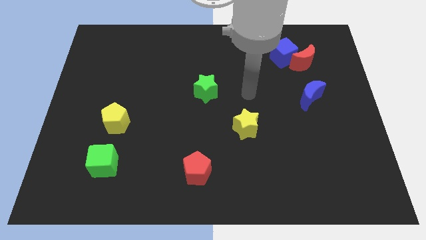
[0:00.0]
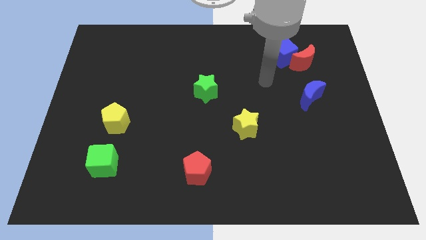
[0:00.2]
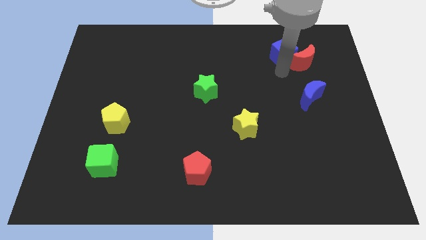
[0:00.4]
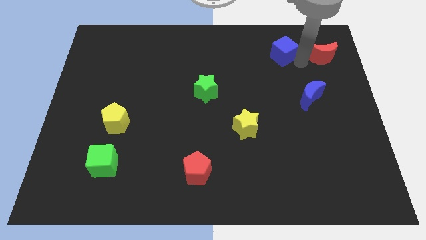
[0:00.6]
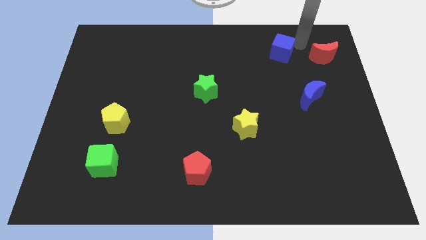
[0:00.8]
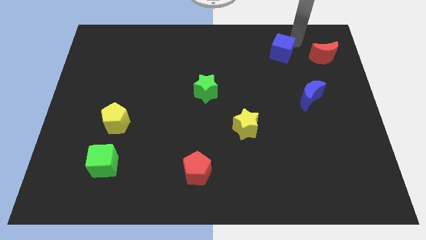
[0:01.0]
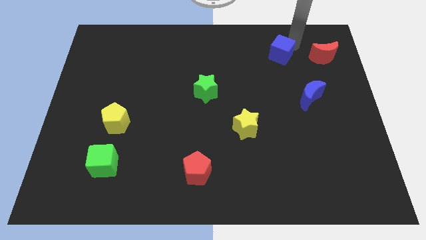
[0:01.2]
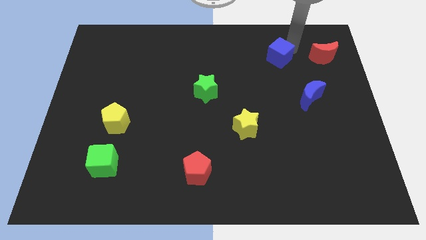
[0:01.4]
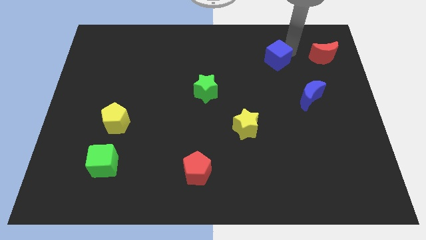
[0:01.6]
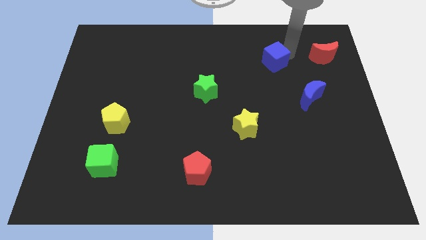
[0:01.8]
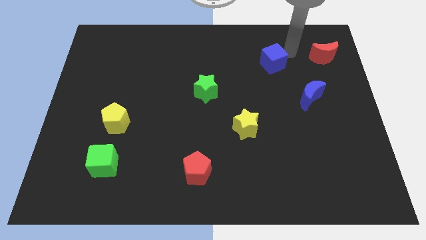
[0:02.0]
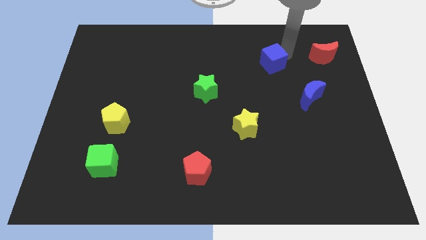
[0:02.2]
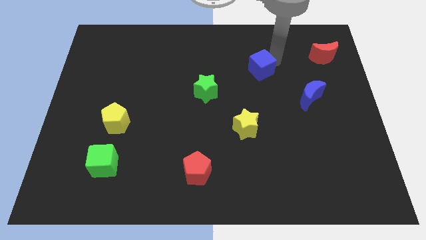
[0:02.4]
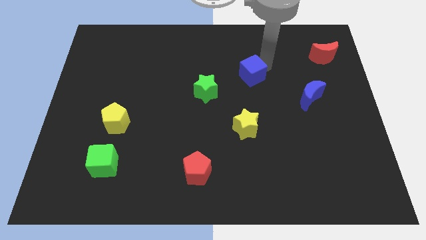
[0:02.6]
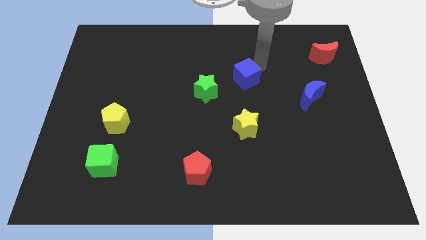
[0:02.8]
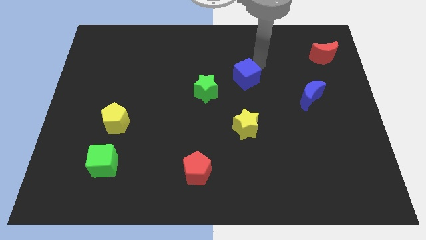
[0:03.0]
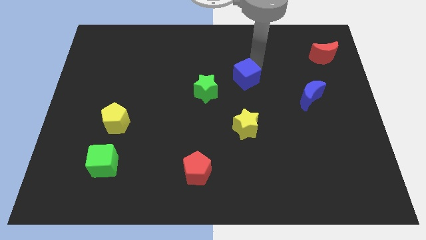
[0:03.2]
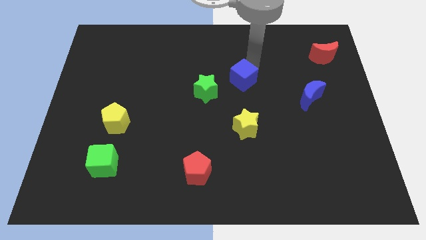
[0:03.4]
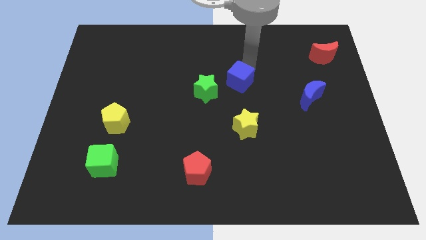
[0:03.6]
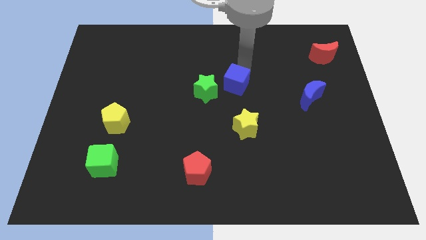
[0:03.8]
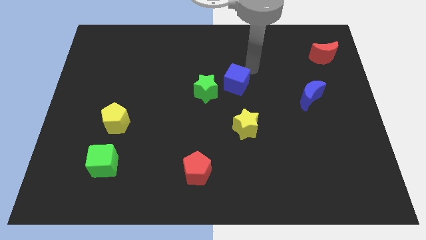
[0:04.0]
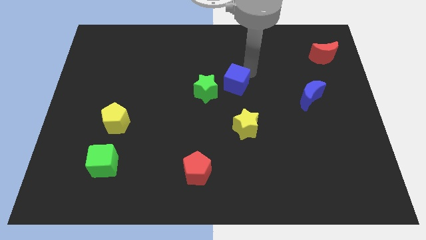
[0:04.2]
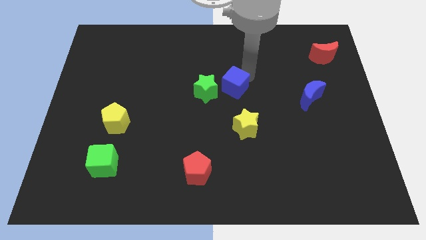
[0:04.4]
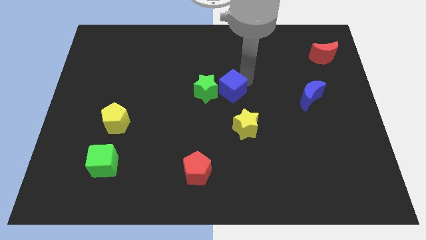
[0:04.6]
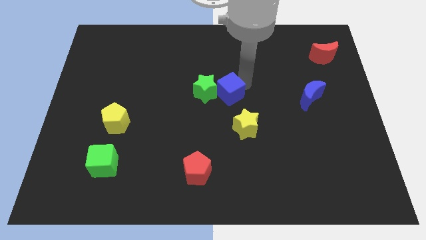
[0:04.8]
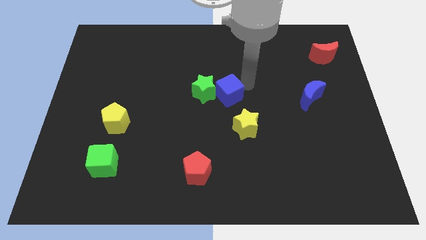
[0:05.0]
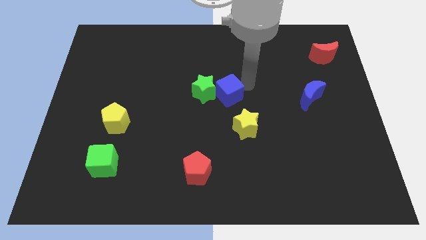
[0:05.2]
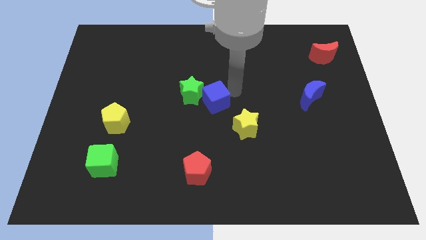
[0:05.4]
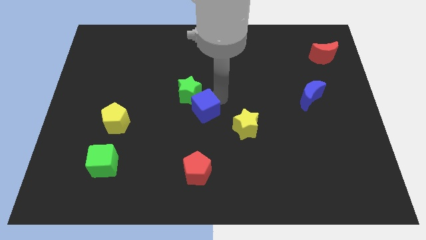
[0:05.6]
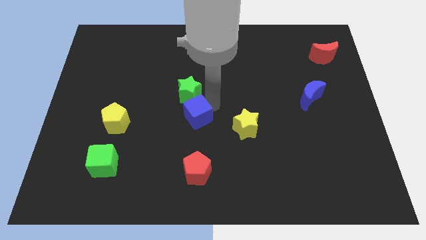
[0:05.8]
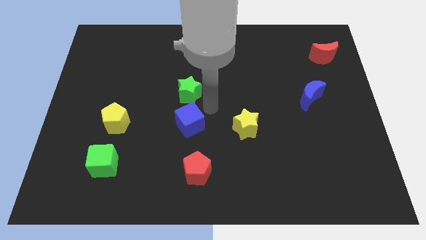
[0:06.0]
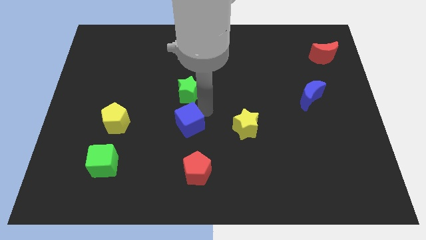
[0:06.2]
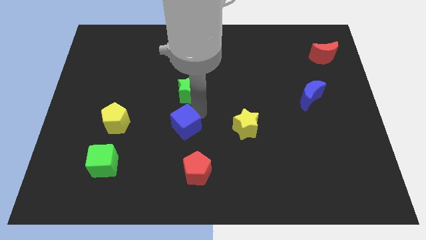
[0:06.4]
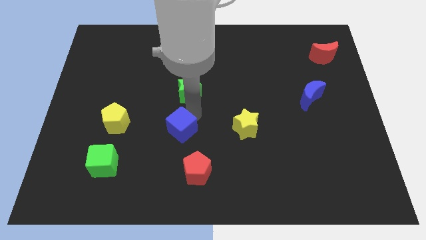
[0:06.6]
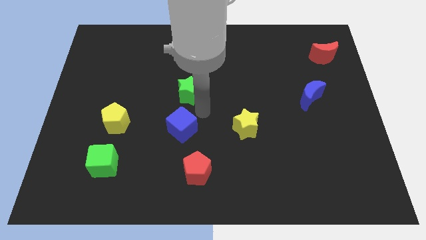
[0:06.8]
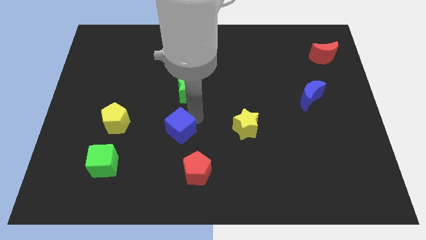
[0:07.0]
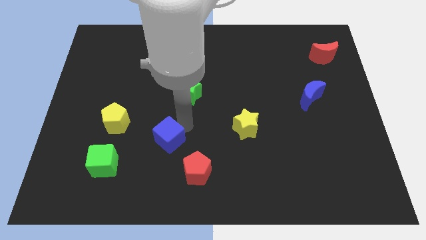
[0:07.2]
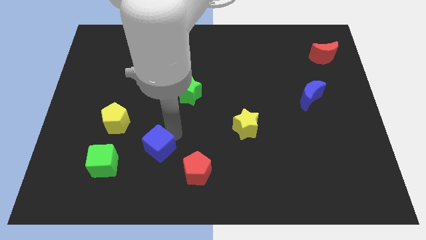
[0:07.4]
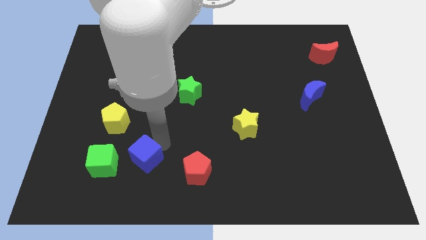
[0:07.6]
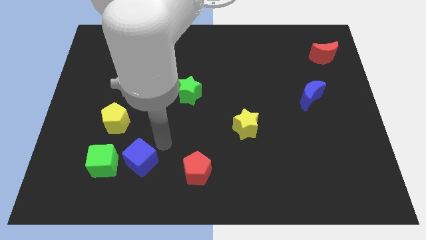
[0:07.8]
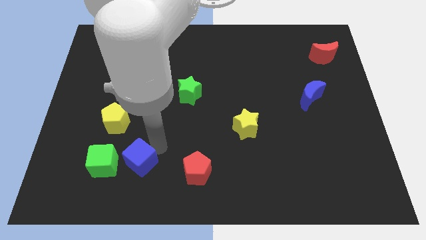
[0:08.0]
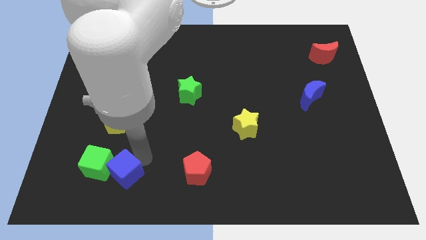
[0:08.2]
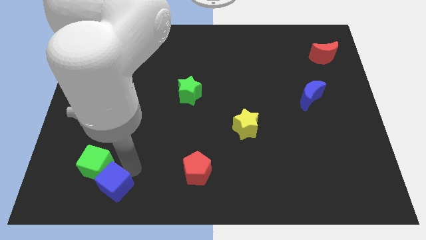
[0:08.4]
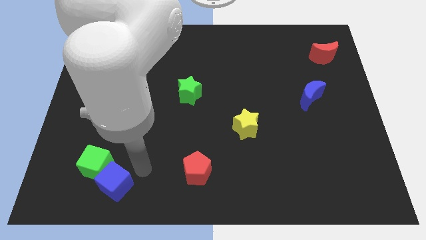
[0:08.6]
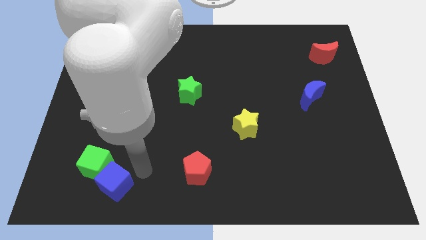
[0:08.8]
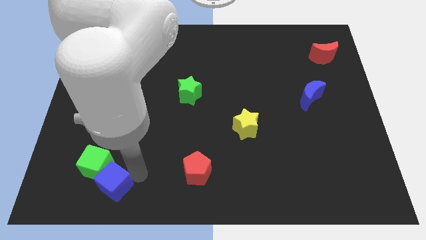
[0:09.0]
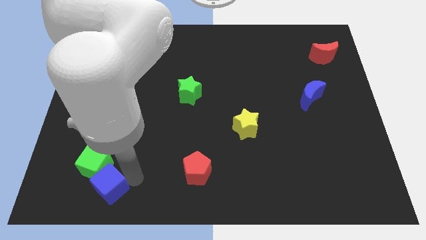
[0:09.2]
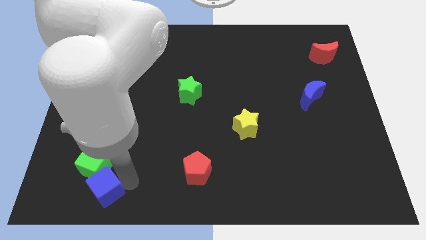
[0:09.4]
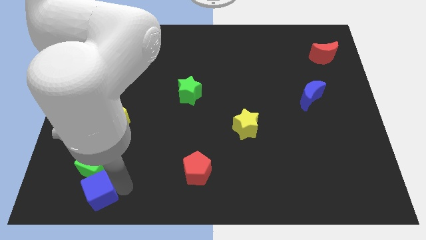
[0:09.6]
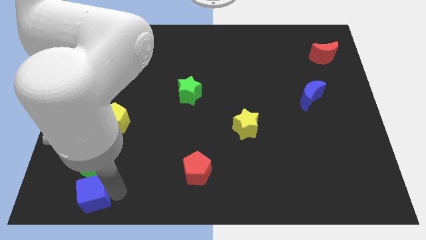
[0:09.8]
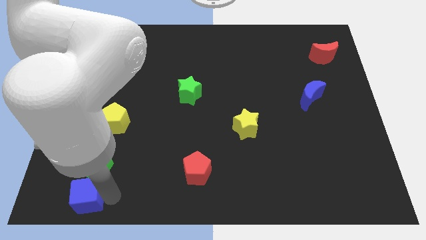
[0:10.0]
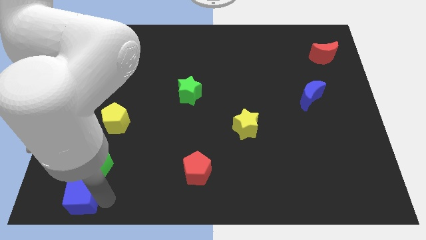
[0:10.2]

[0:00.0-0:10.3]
slide the blue cube to the bottom left

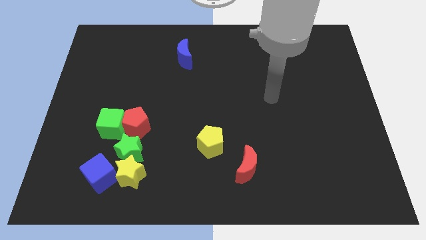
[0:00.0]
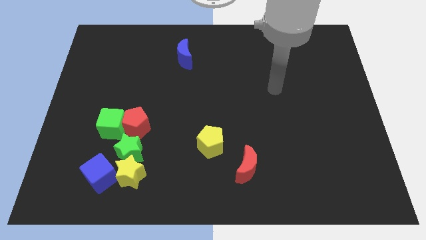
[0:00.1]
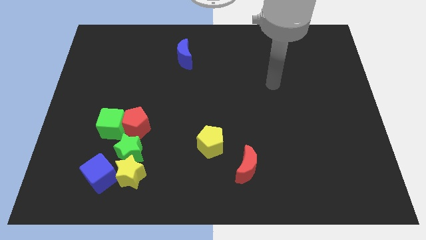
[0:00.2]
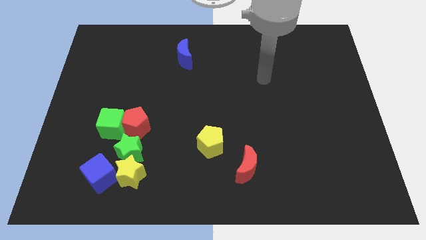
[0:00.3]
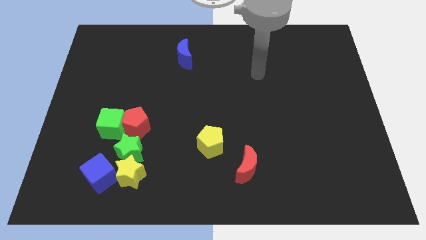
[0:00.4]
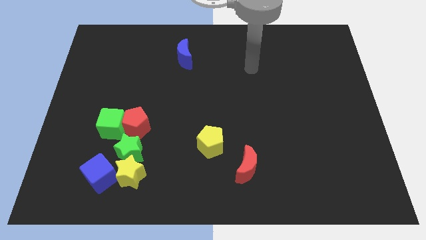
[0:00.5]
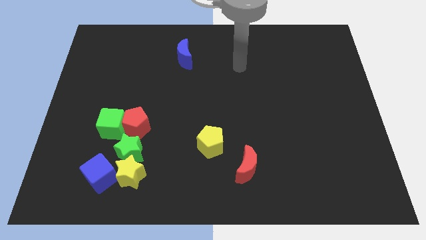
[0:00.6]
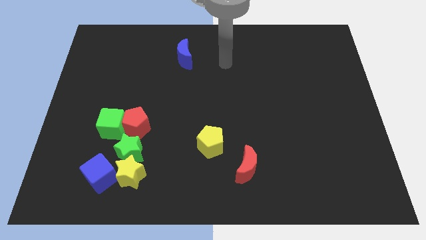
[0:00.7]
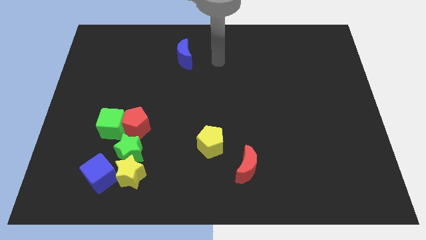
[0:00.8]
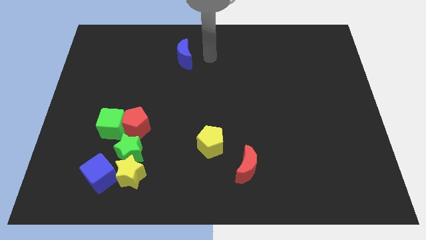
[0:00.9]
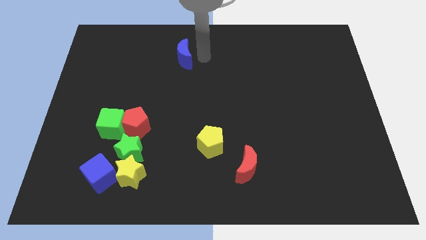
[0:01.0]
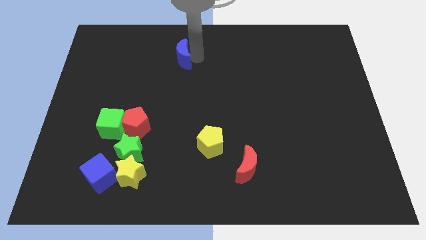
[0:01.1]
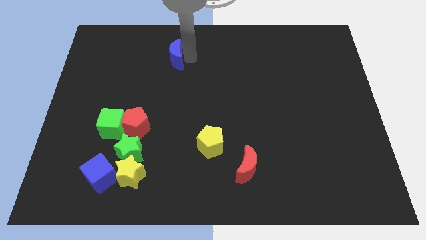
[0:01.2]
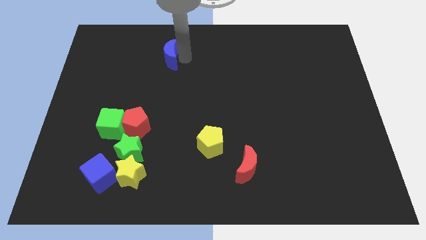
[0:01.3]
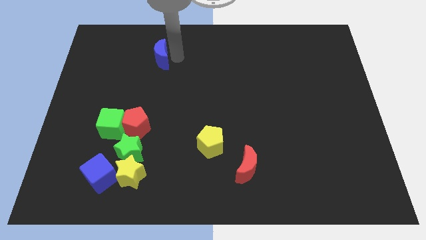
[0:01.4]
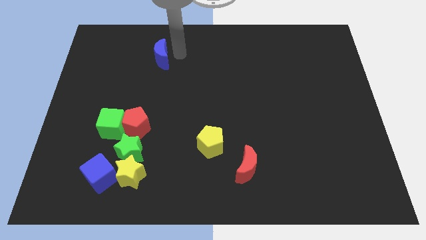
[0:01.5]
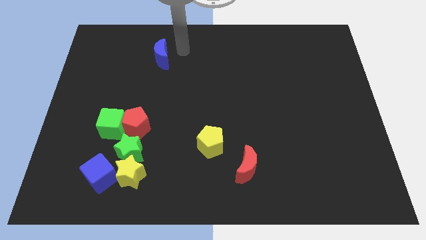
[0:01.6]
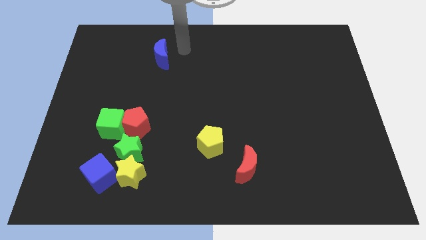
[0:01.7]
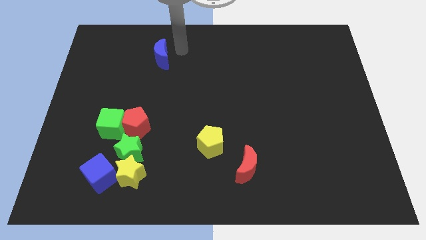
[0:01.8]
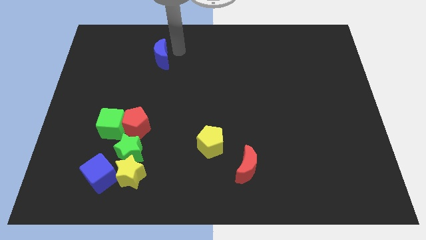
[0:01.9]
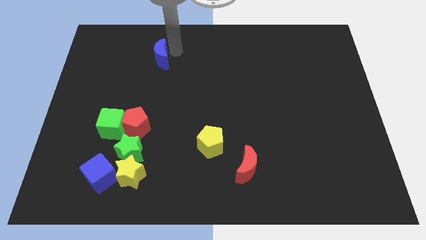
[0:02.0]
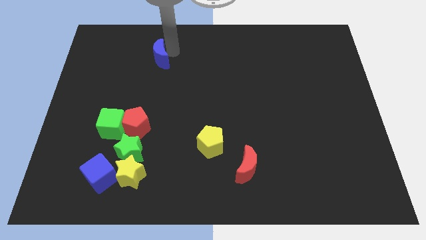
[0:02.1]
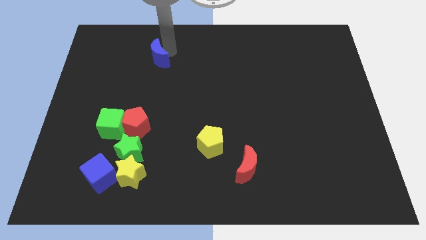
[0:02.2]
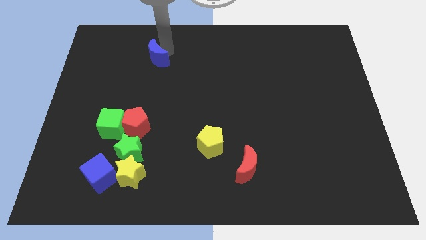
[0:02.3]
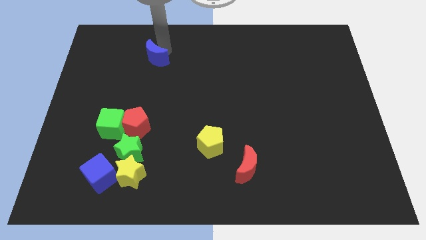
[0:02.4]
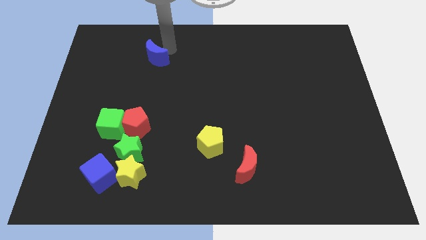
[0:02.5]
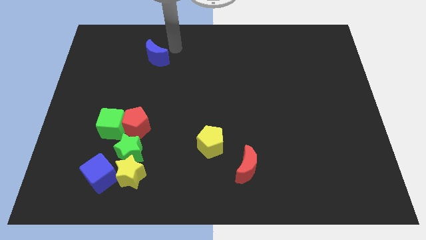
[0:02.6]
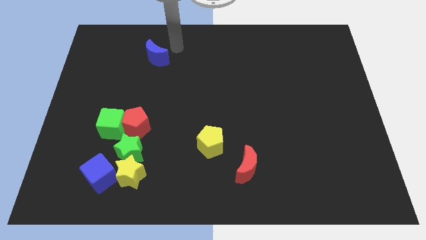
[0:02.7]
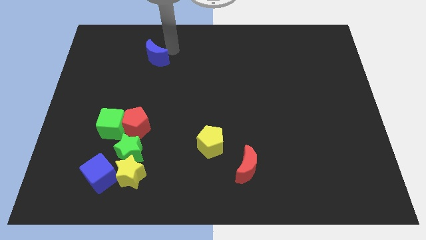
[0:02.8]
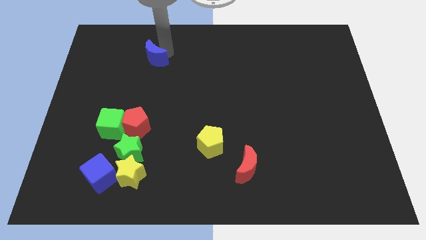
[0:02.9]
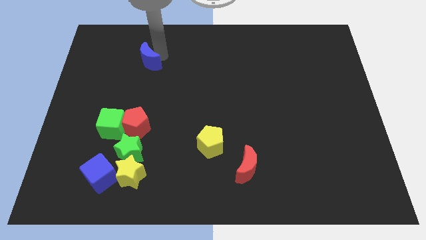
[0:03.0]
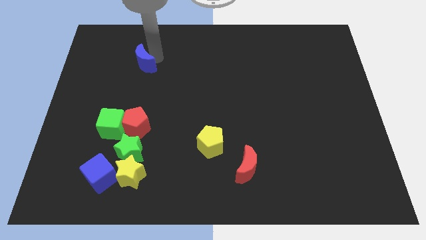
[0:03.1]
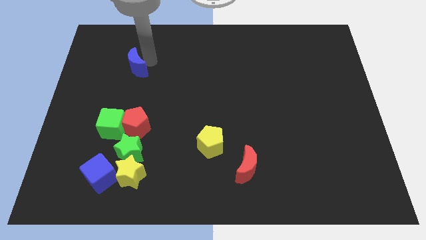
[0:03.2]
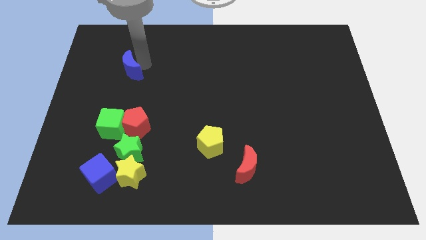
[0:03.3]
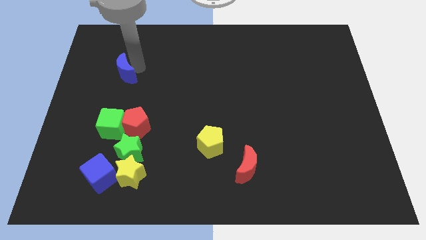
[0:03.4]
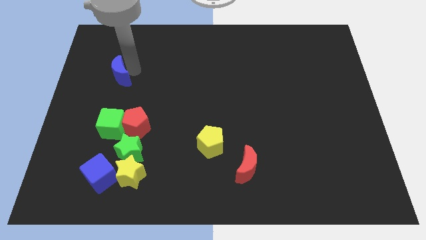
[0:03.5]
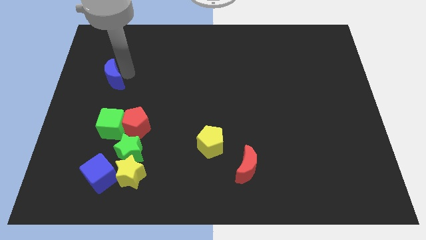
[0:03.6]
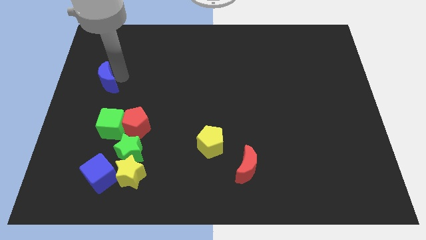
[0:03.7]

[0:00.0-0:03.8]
slide the blue moon to the left side
